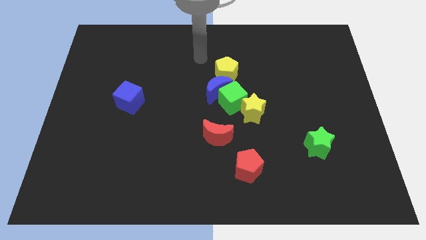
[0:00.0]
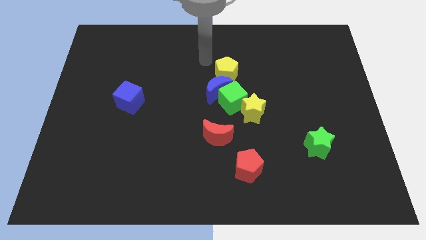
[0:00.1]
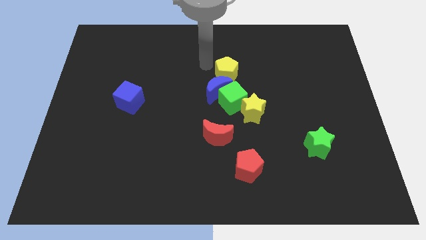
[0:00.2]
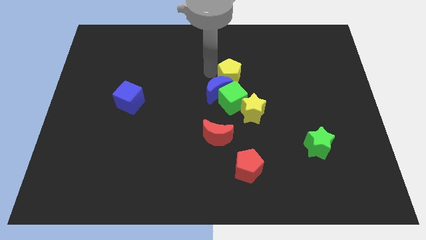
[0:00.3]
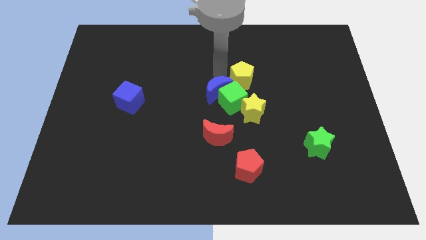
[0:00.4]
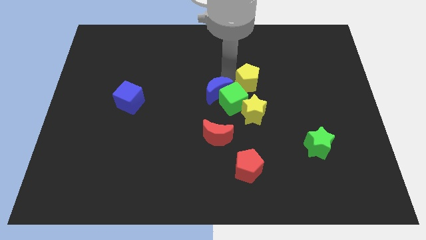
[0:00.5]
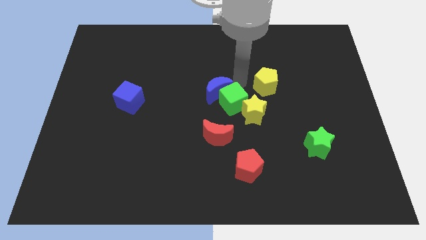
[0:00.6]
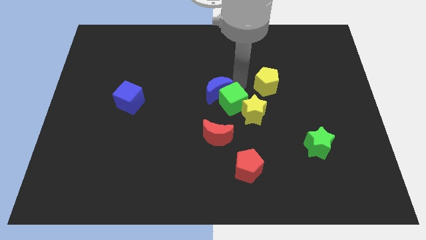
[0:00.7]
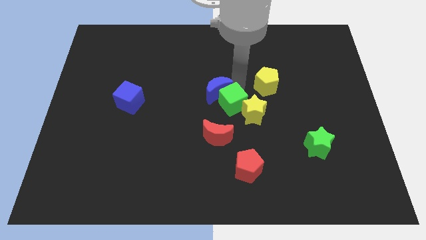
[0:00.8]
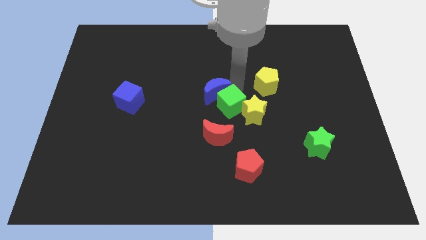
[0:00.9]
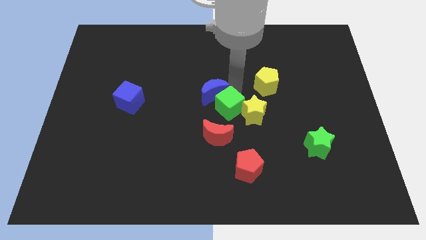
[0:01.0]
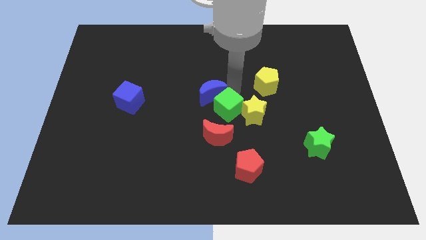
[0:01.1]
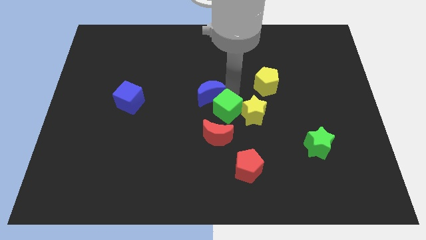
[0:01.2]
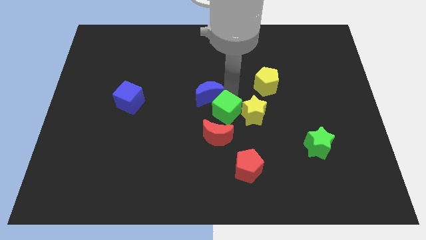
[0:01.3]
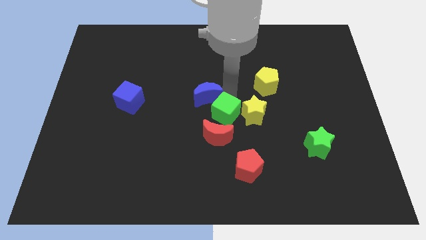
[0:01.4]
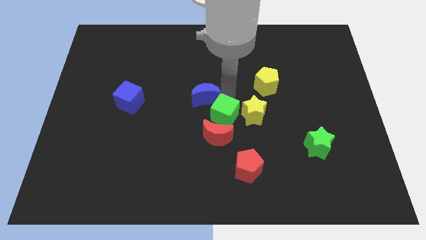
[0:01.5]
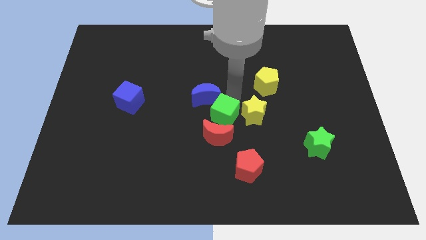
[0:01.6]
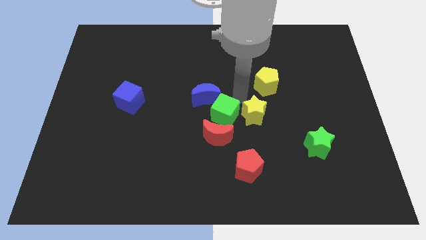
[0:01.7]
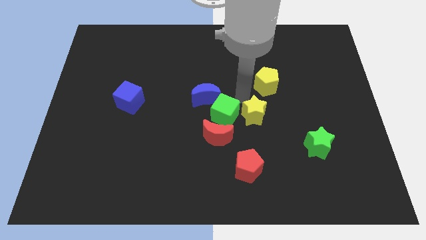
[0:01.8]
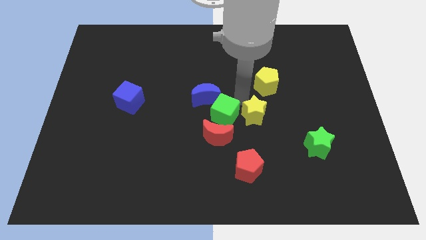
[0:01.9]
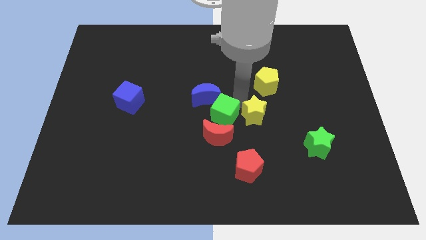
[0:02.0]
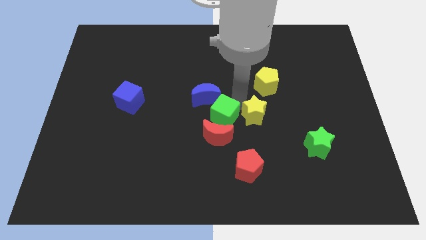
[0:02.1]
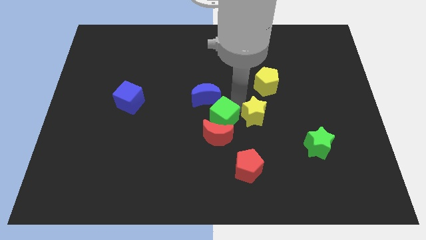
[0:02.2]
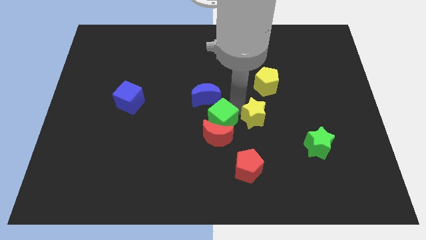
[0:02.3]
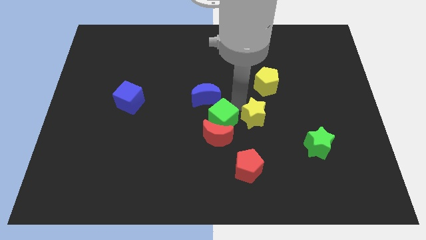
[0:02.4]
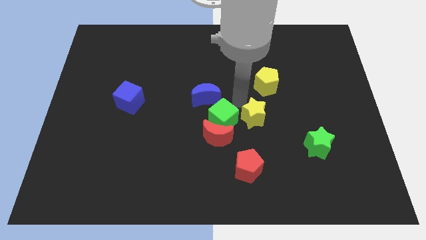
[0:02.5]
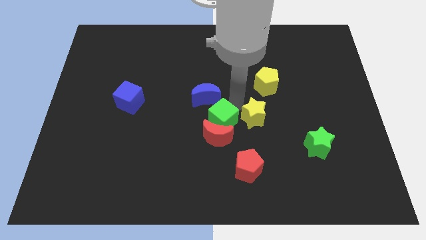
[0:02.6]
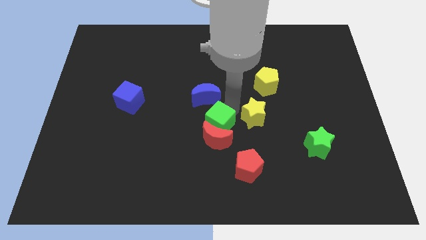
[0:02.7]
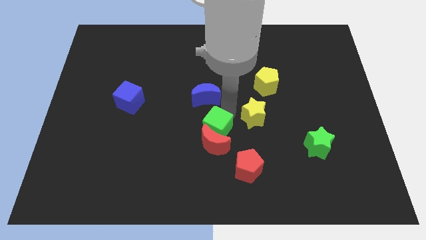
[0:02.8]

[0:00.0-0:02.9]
separate the green cube from the clump

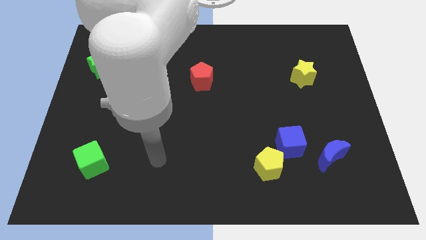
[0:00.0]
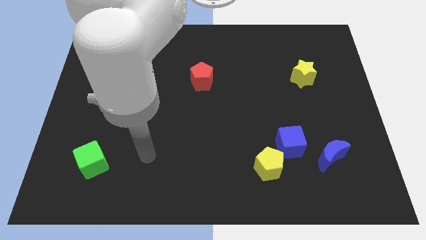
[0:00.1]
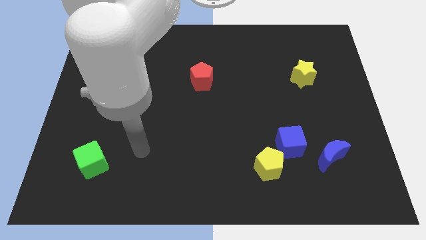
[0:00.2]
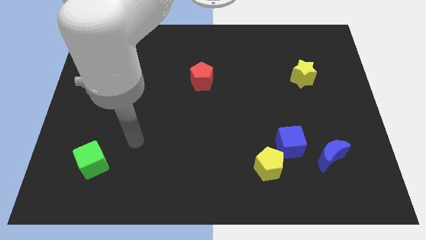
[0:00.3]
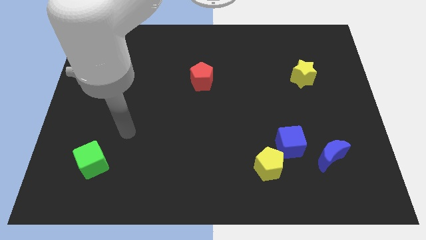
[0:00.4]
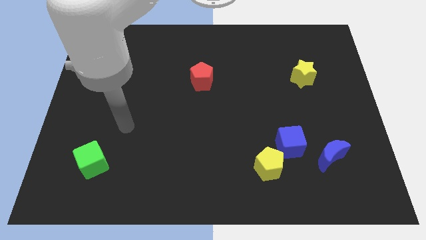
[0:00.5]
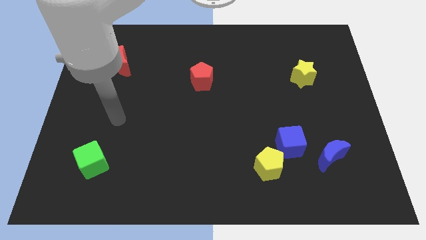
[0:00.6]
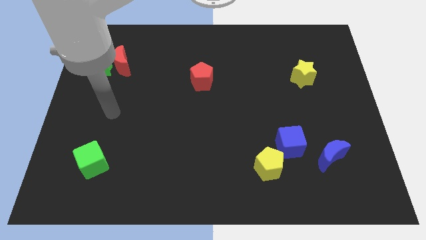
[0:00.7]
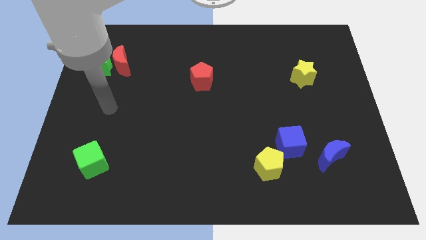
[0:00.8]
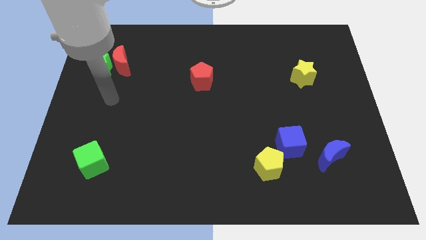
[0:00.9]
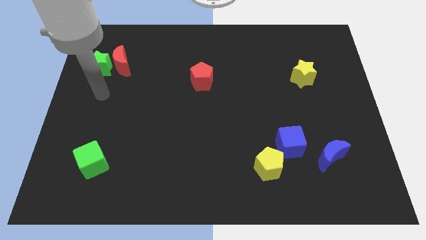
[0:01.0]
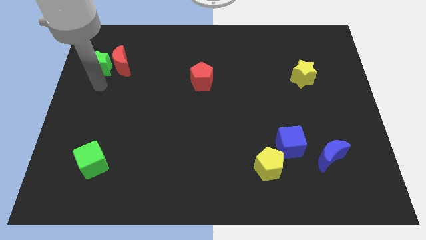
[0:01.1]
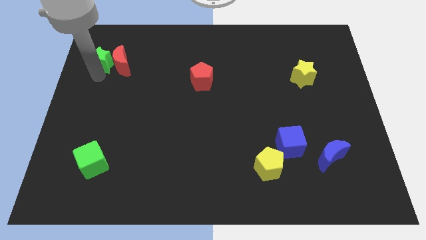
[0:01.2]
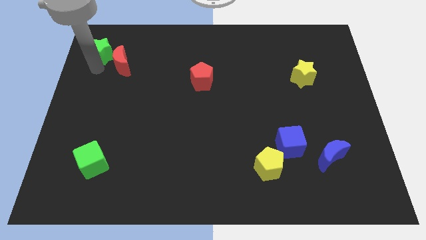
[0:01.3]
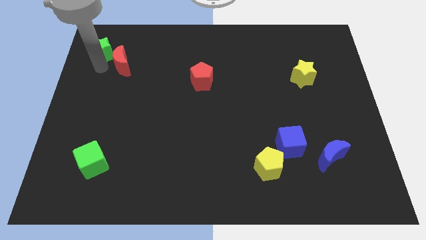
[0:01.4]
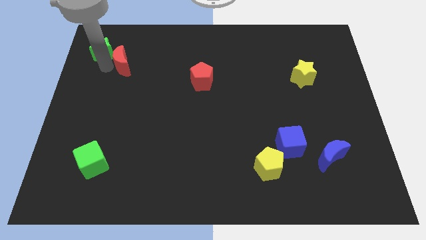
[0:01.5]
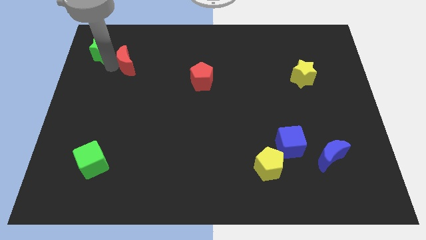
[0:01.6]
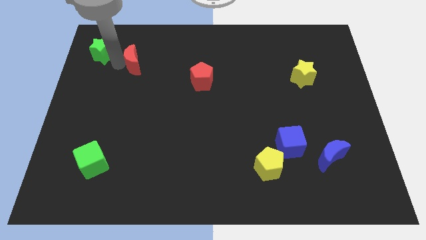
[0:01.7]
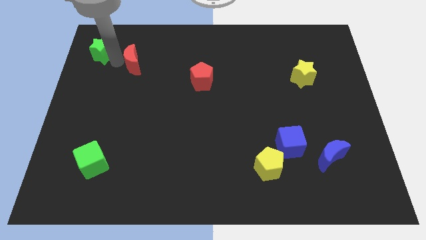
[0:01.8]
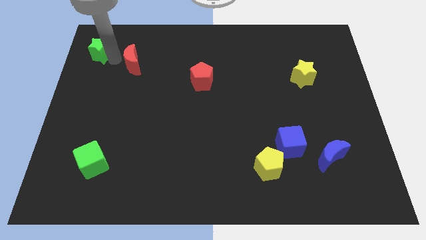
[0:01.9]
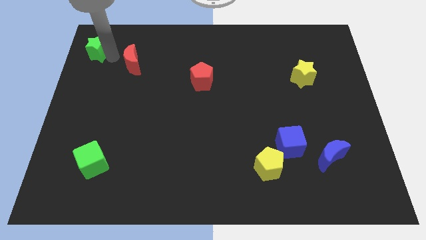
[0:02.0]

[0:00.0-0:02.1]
pull the red moon apart from the green star

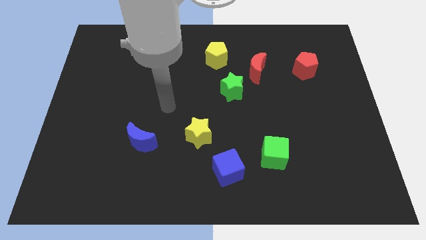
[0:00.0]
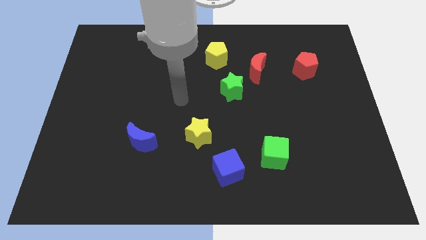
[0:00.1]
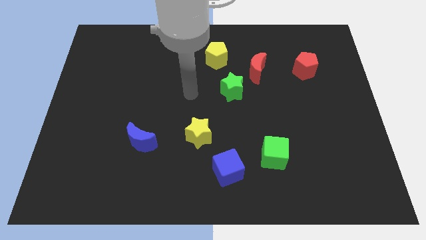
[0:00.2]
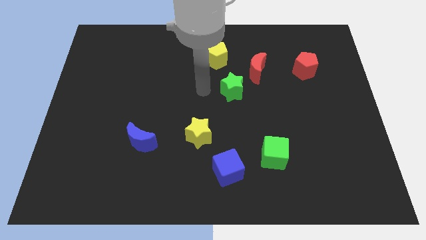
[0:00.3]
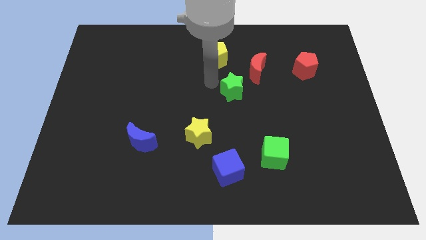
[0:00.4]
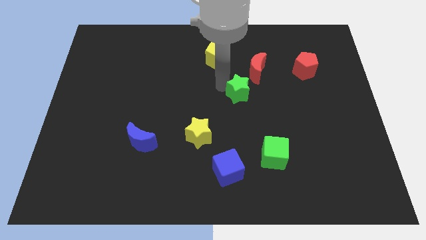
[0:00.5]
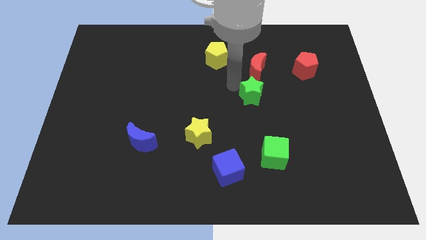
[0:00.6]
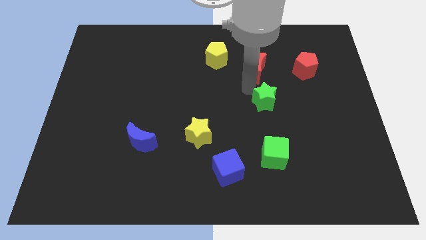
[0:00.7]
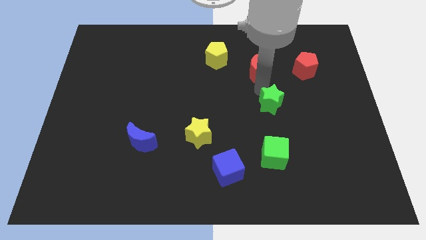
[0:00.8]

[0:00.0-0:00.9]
move the red moon away from the green star

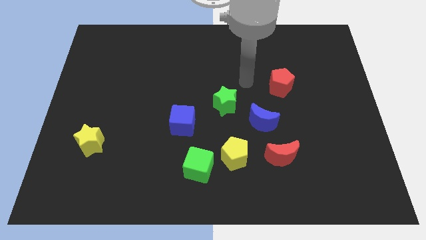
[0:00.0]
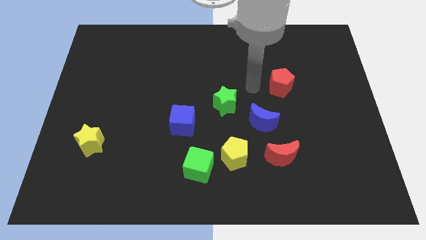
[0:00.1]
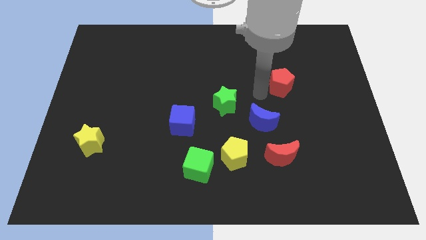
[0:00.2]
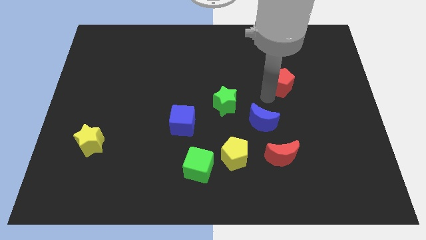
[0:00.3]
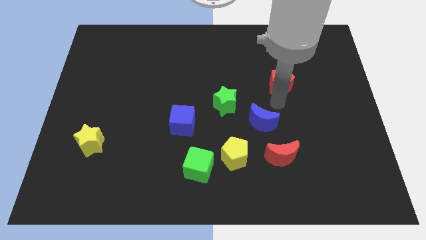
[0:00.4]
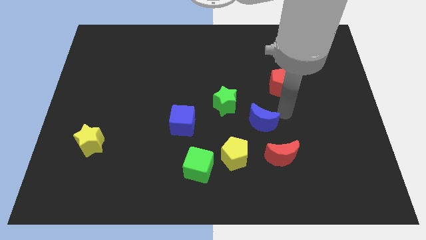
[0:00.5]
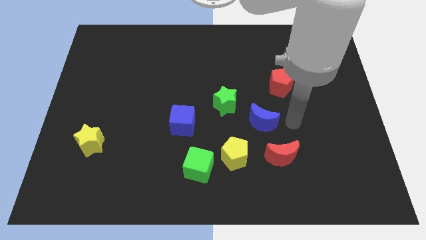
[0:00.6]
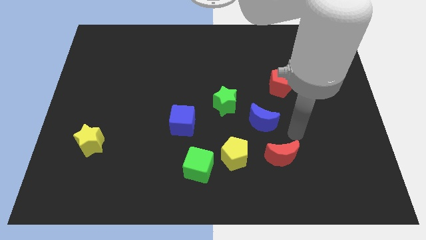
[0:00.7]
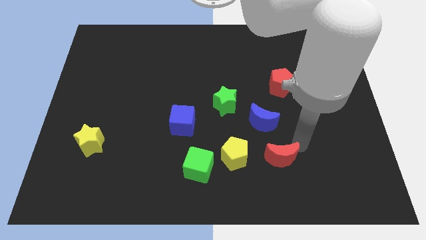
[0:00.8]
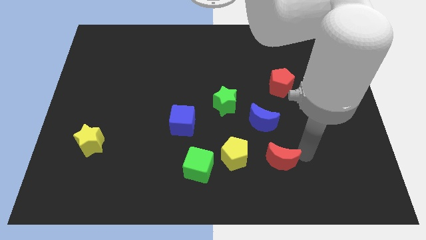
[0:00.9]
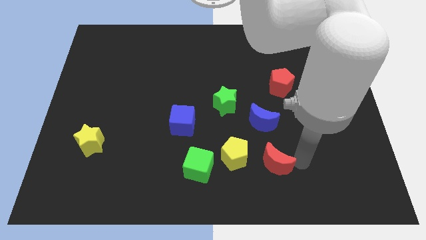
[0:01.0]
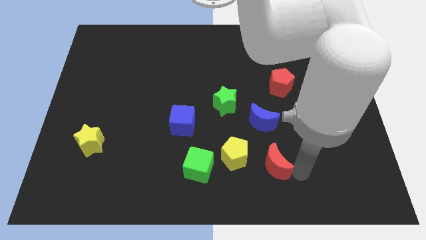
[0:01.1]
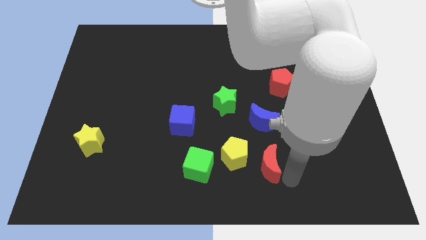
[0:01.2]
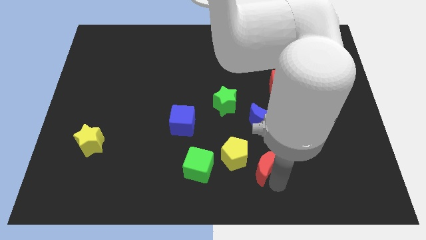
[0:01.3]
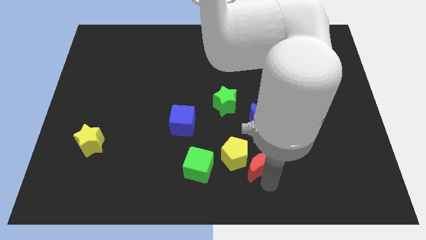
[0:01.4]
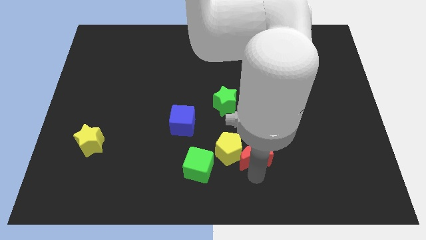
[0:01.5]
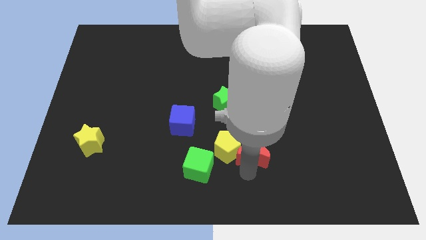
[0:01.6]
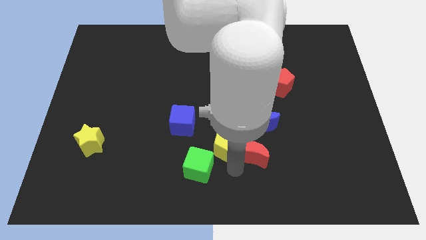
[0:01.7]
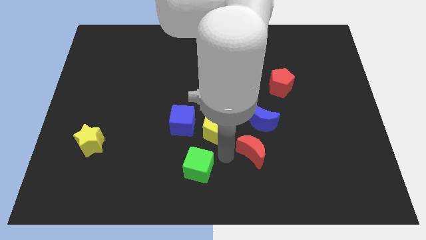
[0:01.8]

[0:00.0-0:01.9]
move the green cube away from the yellow pentagon

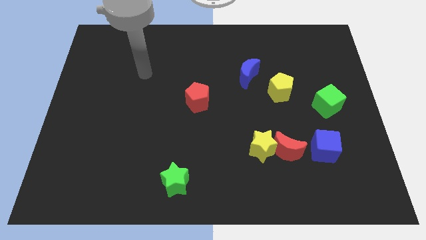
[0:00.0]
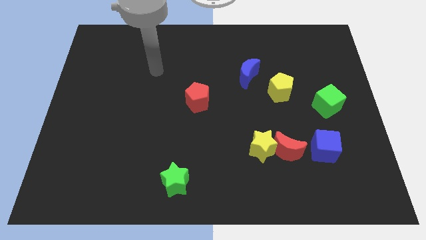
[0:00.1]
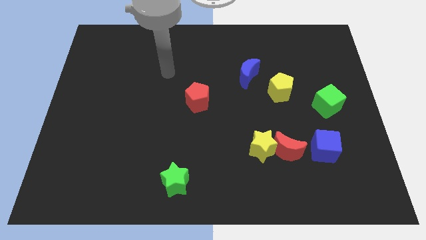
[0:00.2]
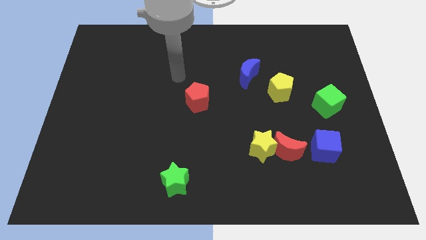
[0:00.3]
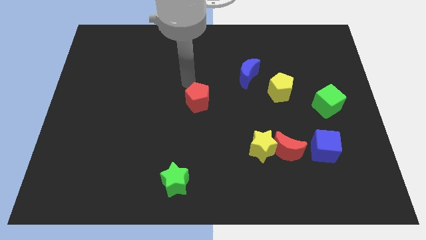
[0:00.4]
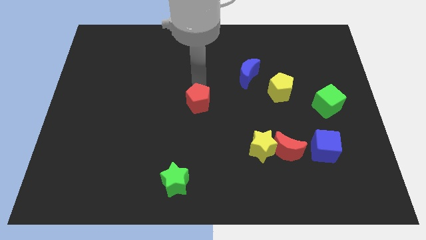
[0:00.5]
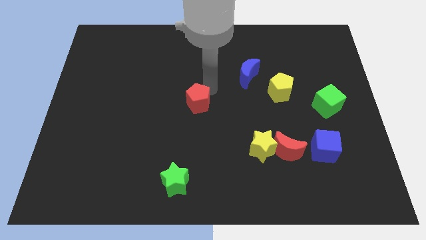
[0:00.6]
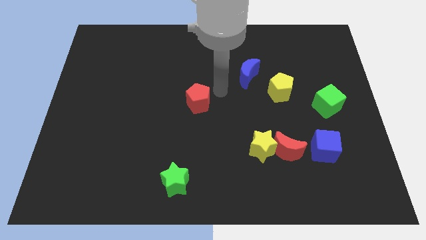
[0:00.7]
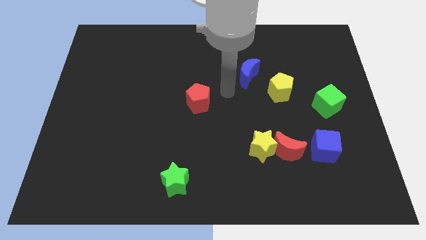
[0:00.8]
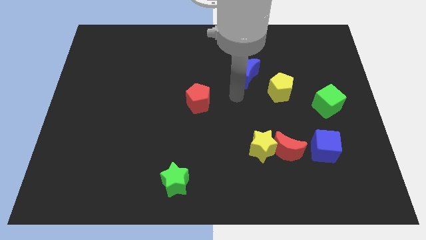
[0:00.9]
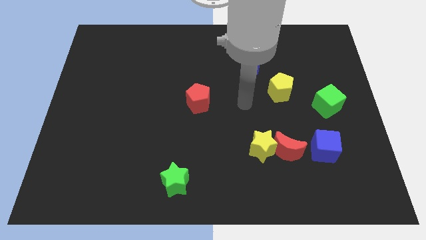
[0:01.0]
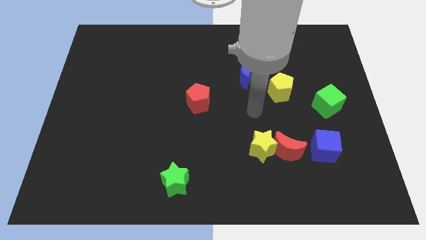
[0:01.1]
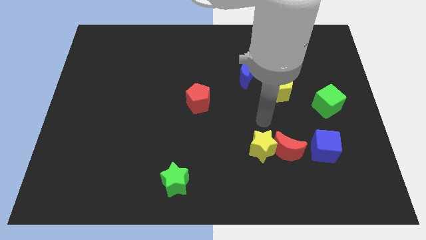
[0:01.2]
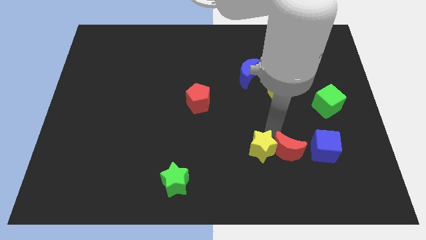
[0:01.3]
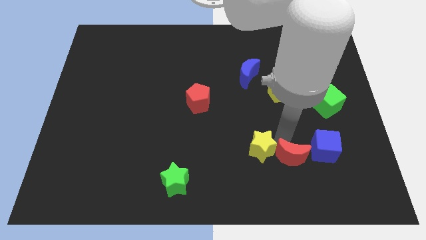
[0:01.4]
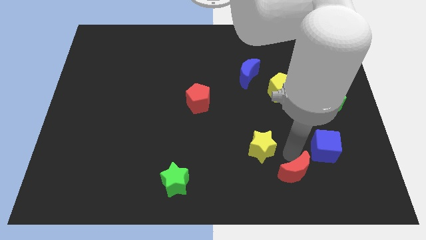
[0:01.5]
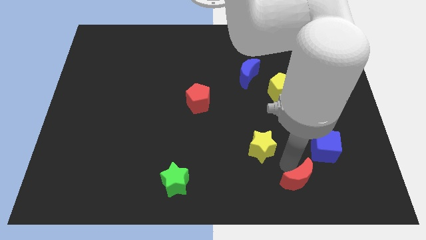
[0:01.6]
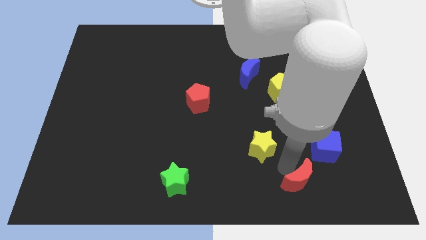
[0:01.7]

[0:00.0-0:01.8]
move the yellow star away from the red moon
